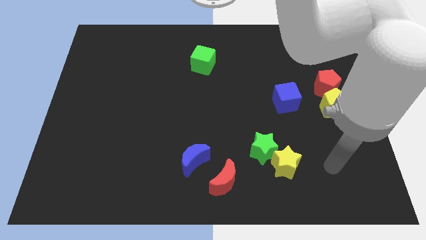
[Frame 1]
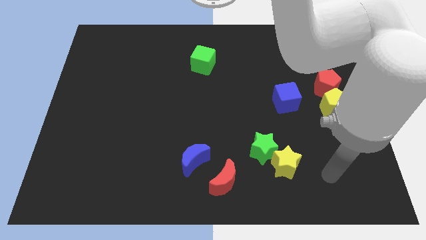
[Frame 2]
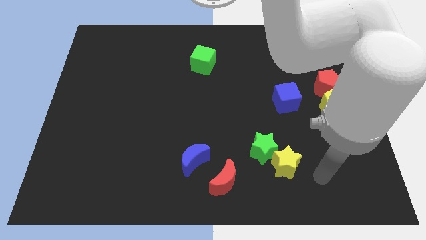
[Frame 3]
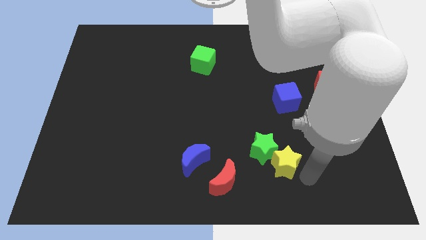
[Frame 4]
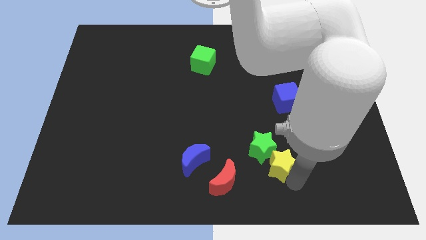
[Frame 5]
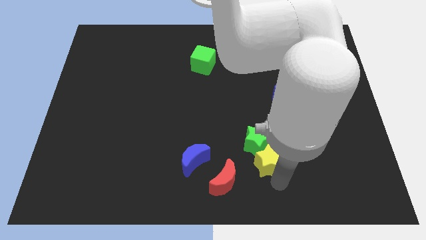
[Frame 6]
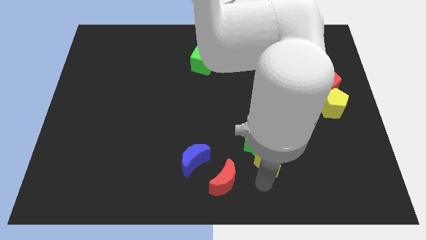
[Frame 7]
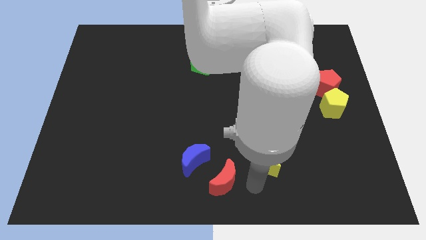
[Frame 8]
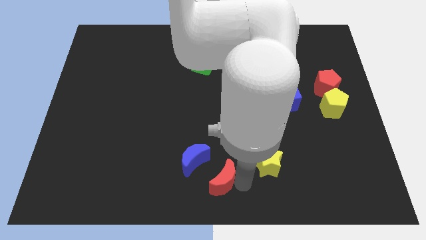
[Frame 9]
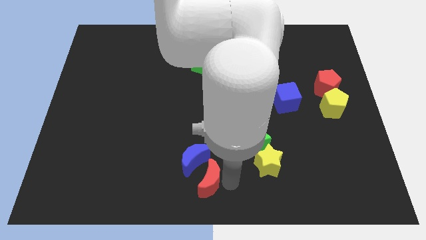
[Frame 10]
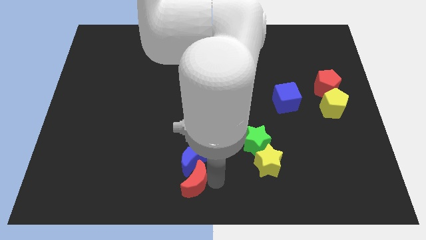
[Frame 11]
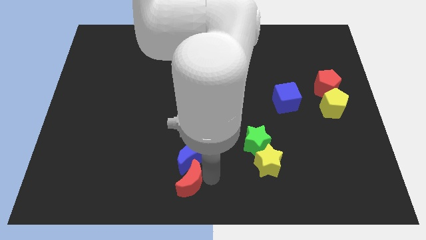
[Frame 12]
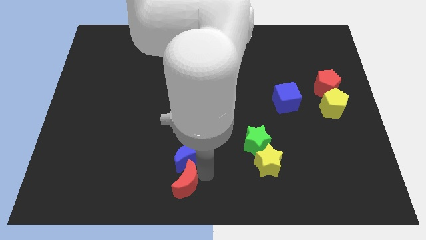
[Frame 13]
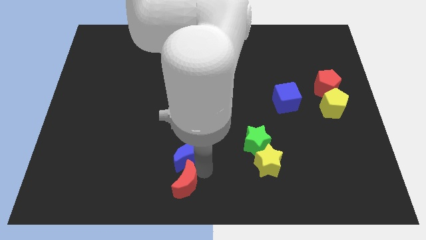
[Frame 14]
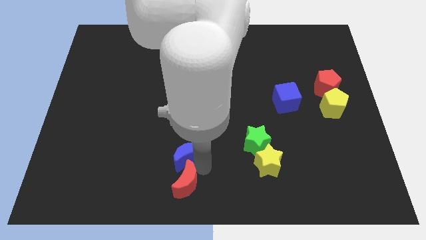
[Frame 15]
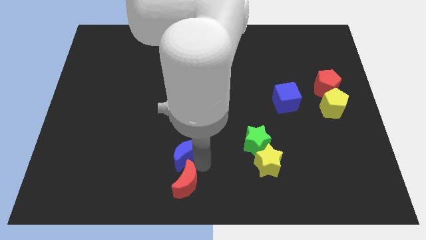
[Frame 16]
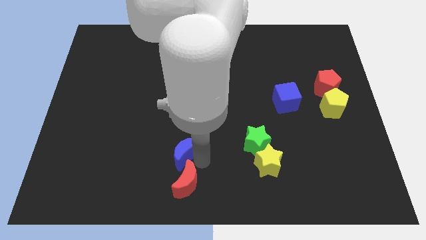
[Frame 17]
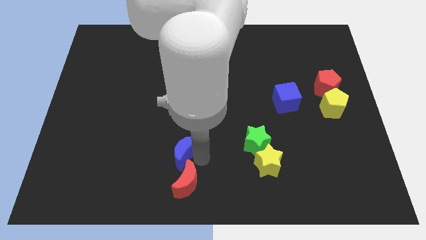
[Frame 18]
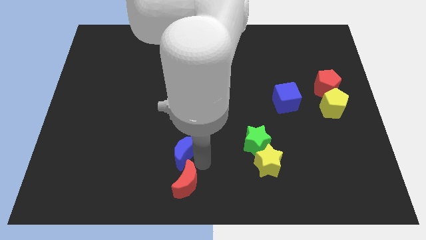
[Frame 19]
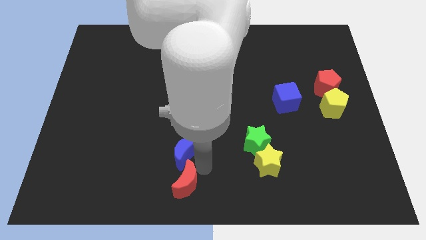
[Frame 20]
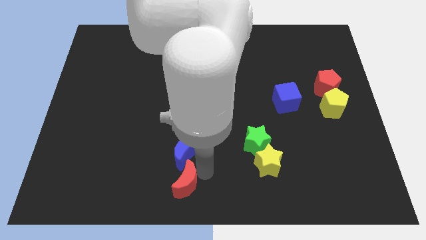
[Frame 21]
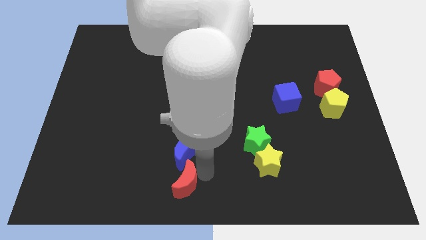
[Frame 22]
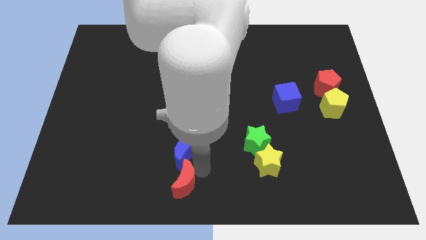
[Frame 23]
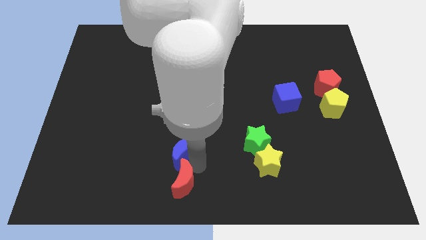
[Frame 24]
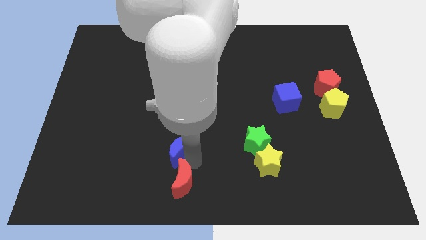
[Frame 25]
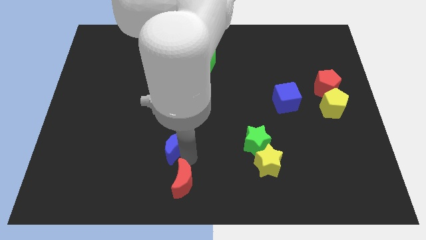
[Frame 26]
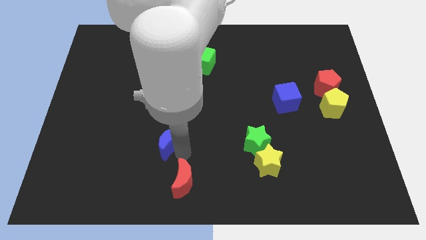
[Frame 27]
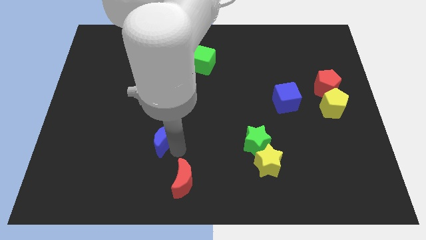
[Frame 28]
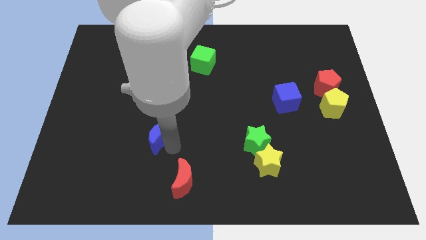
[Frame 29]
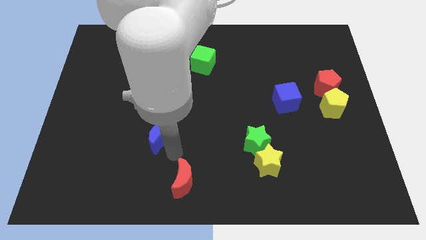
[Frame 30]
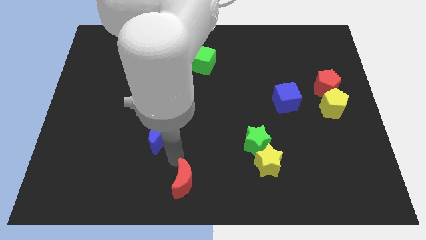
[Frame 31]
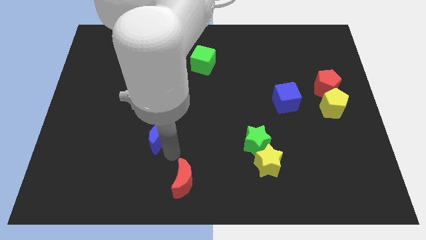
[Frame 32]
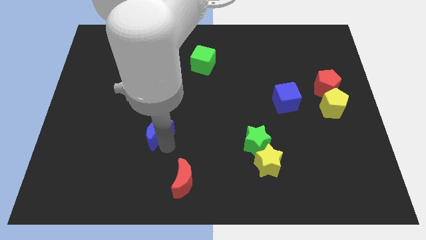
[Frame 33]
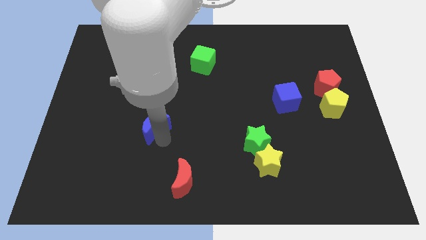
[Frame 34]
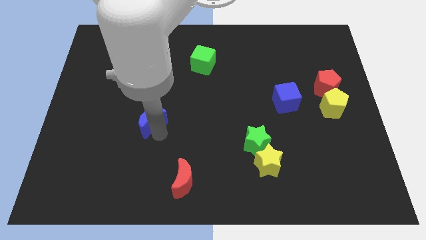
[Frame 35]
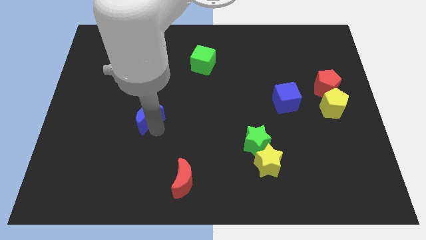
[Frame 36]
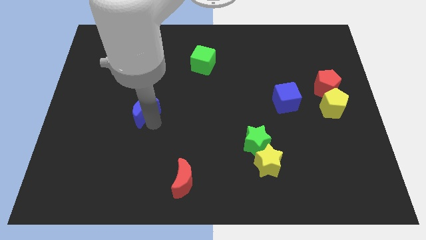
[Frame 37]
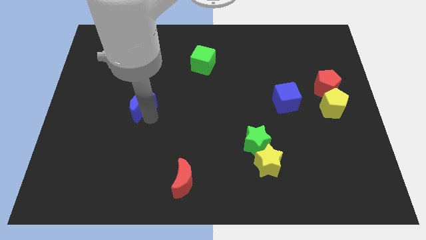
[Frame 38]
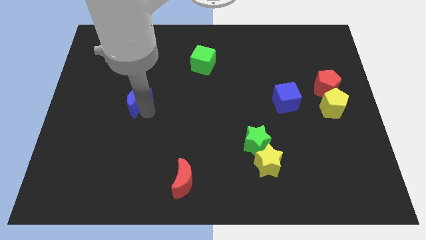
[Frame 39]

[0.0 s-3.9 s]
move the blue moon up and left

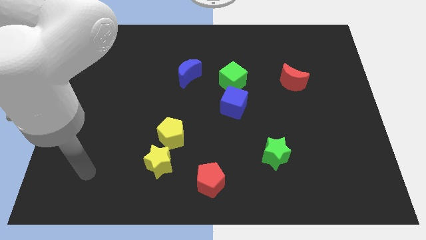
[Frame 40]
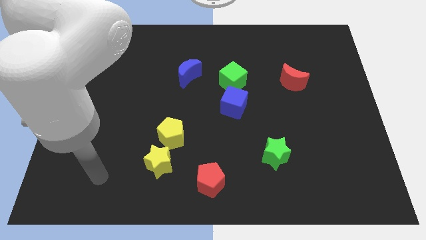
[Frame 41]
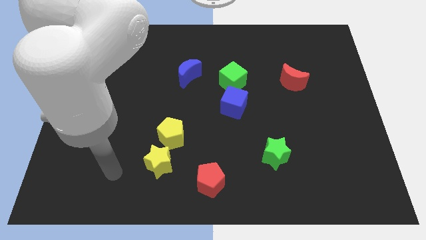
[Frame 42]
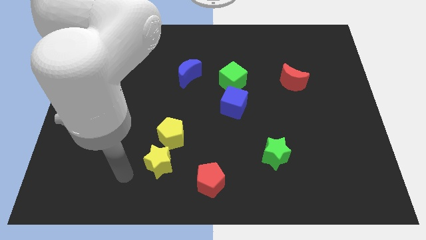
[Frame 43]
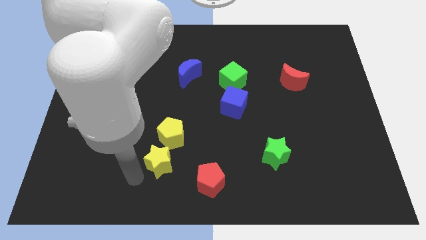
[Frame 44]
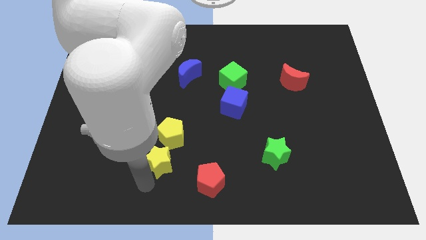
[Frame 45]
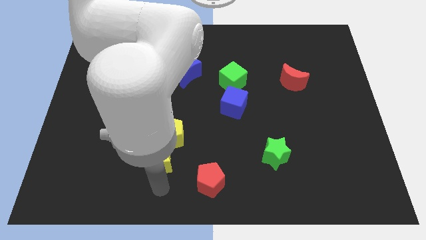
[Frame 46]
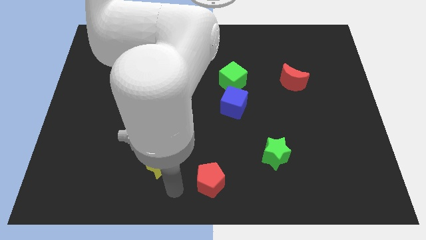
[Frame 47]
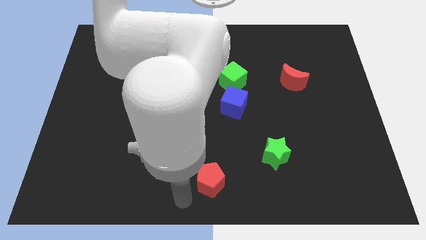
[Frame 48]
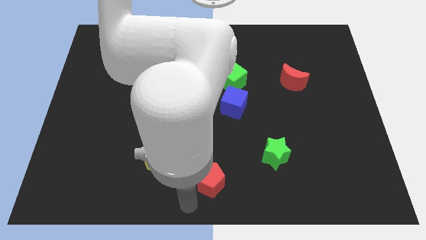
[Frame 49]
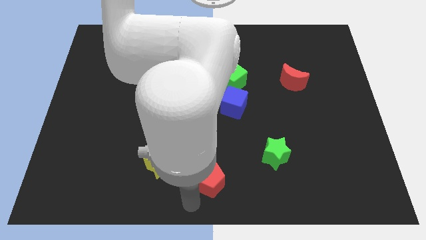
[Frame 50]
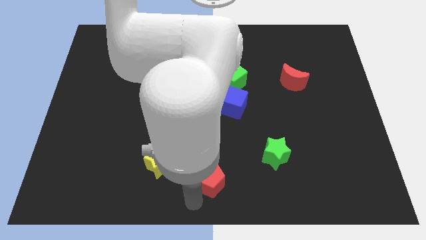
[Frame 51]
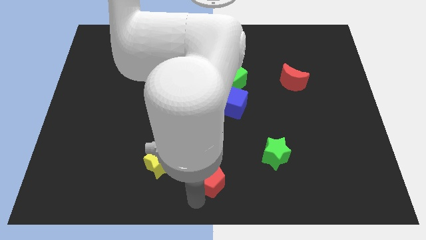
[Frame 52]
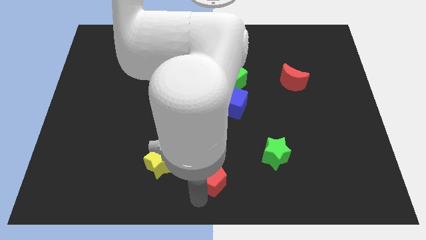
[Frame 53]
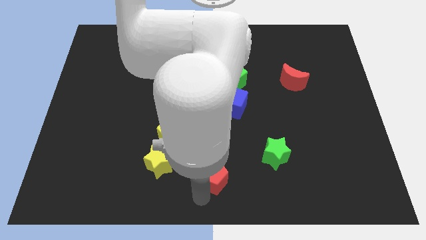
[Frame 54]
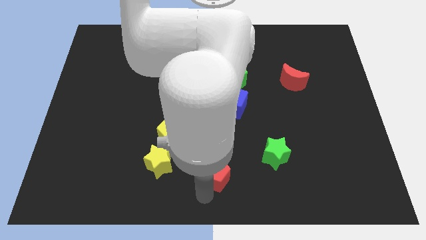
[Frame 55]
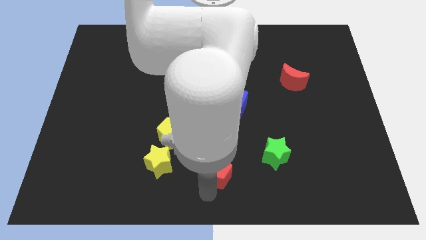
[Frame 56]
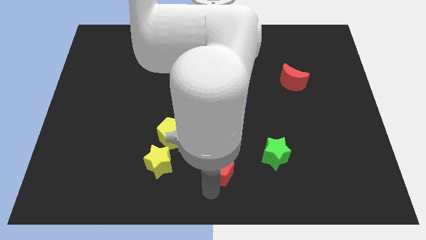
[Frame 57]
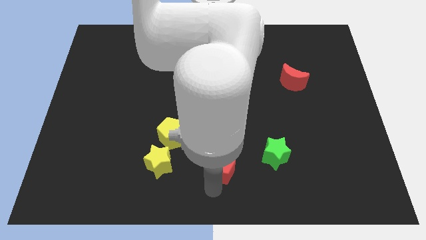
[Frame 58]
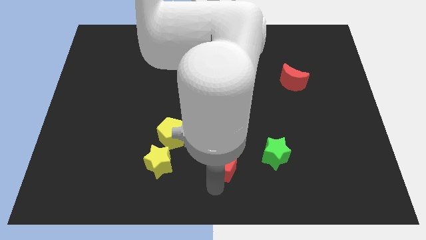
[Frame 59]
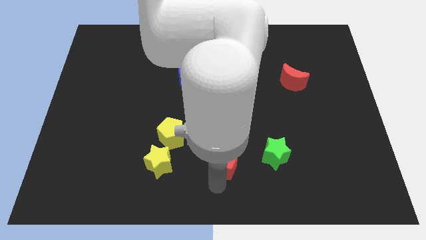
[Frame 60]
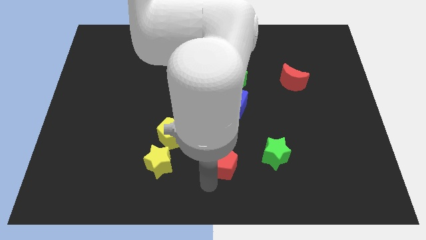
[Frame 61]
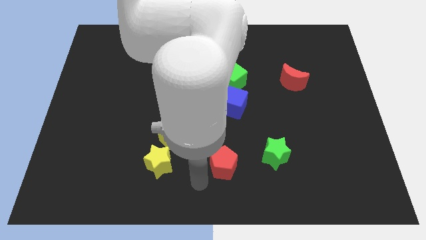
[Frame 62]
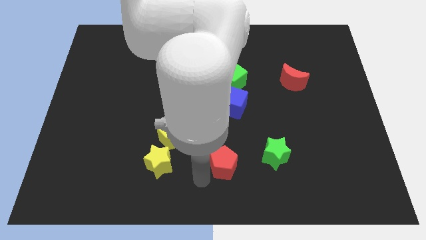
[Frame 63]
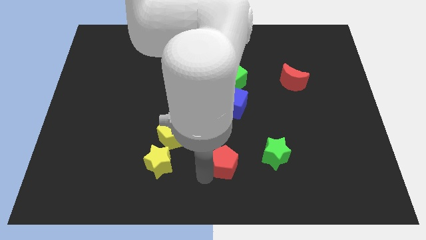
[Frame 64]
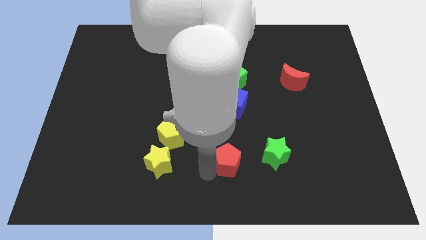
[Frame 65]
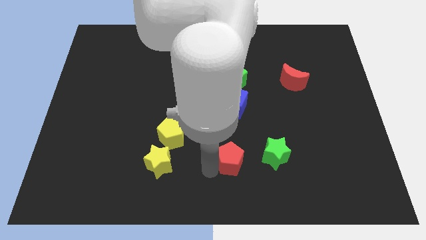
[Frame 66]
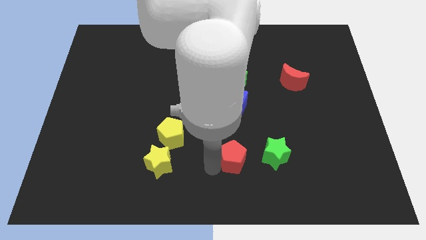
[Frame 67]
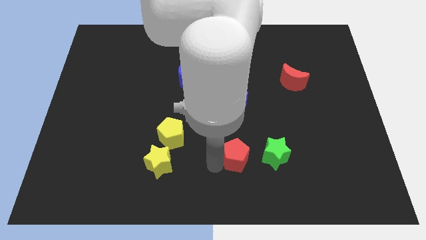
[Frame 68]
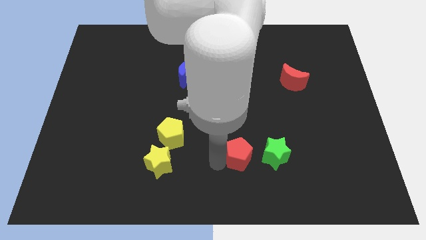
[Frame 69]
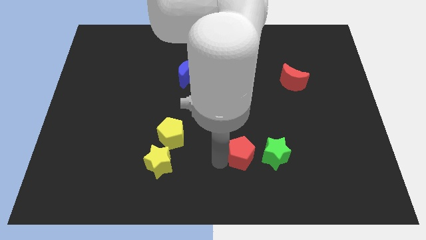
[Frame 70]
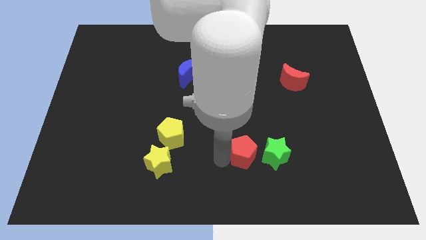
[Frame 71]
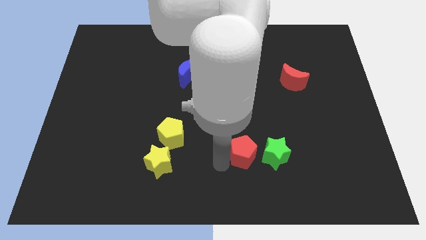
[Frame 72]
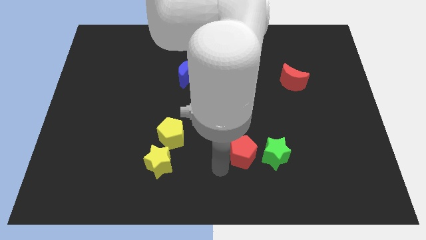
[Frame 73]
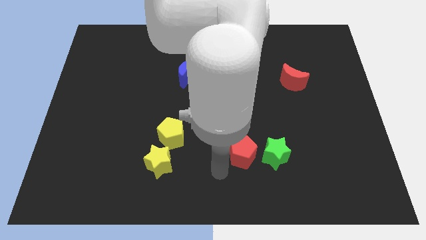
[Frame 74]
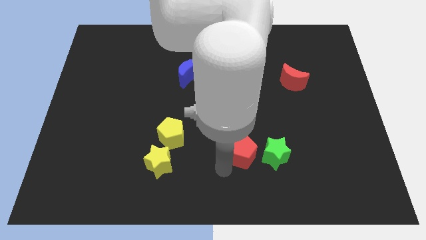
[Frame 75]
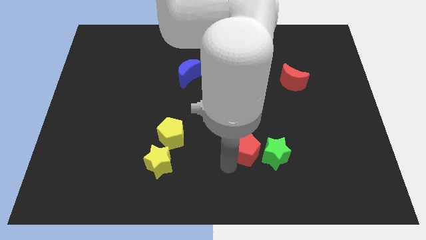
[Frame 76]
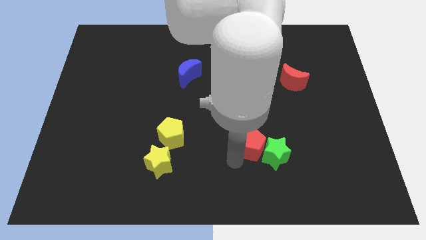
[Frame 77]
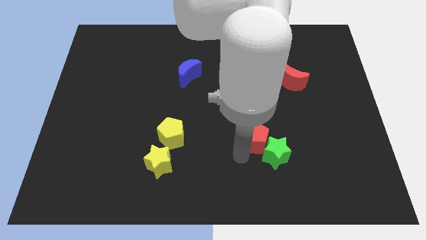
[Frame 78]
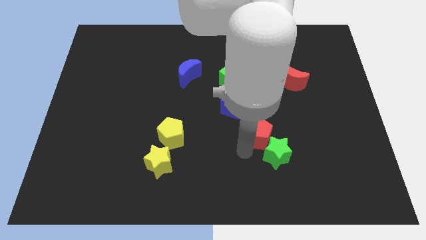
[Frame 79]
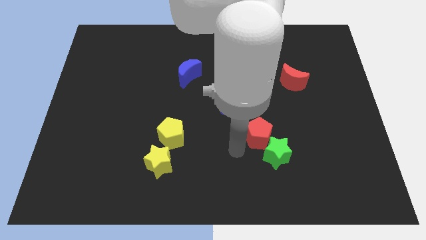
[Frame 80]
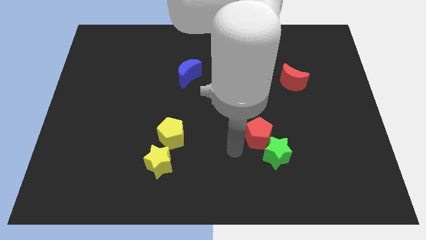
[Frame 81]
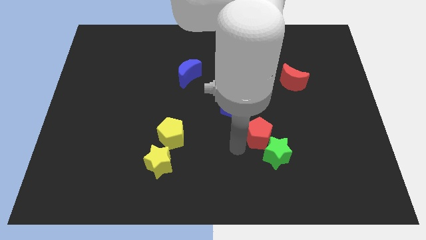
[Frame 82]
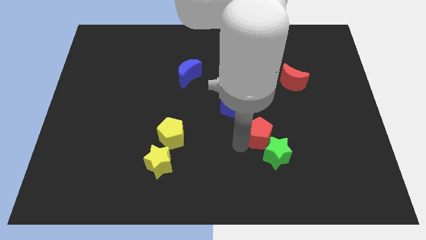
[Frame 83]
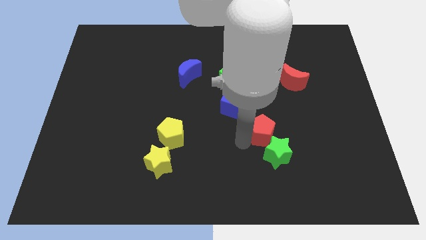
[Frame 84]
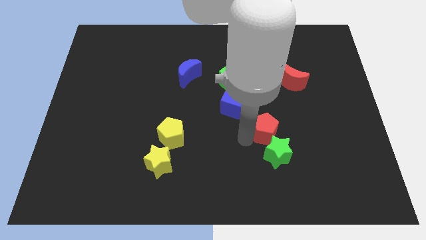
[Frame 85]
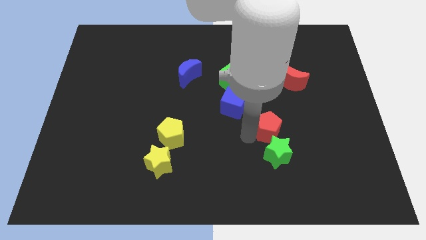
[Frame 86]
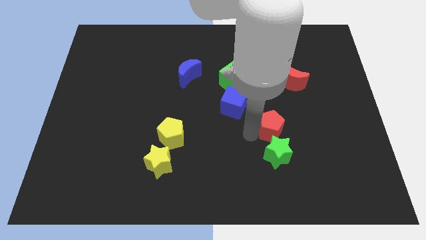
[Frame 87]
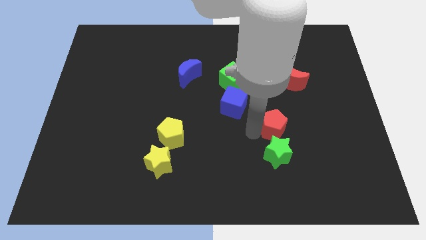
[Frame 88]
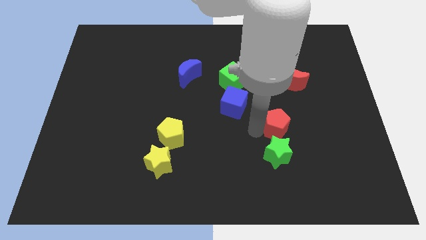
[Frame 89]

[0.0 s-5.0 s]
move the red pentagon up and right
